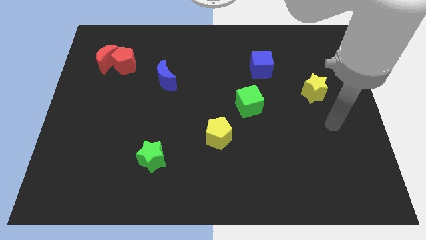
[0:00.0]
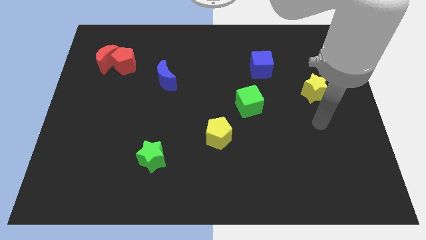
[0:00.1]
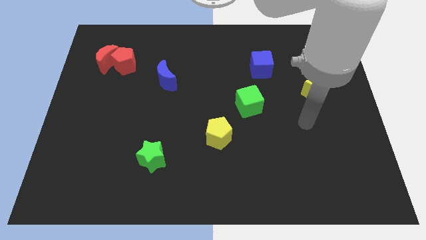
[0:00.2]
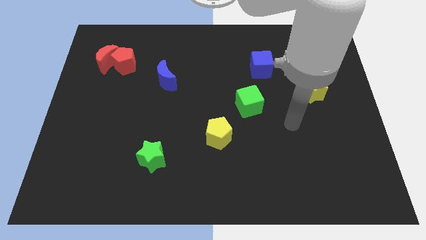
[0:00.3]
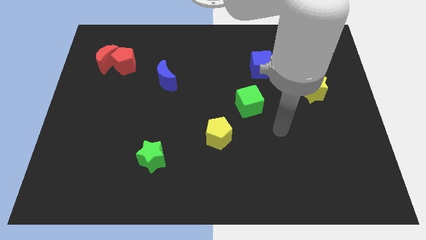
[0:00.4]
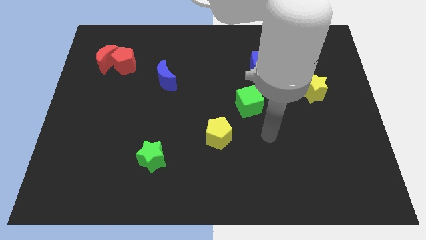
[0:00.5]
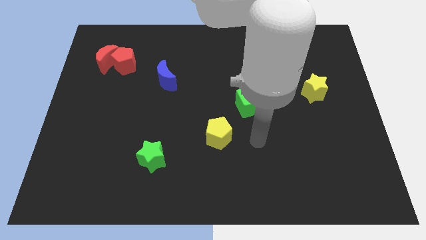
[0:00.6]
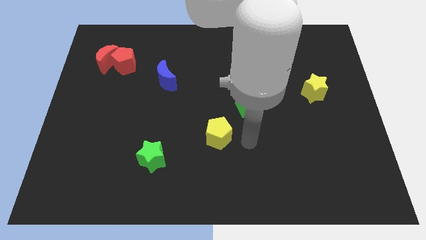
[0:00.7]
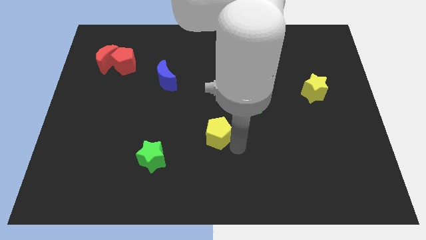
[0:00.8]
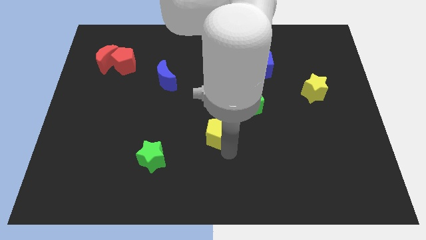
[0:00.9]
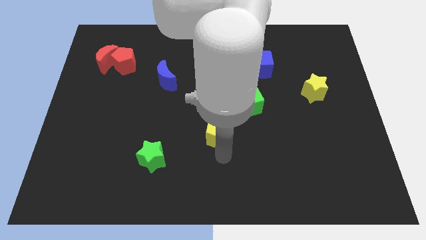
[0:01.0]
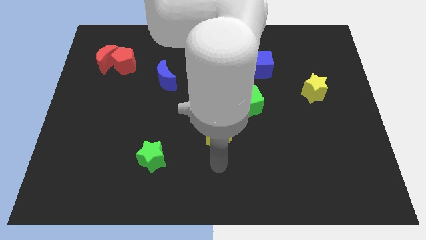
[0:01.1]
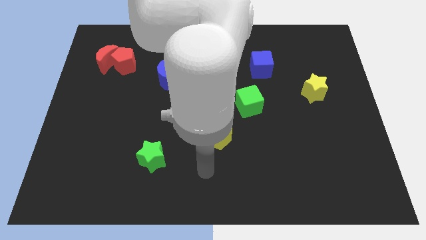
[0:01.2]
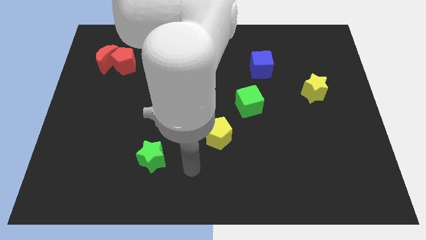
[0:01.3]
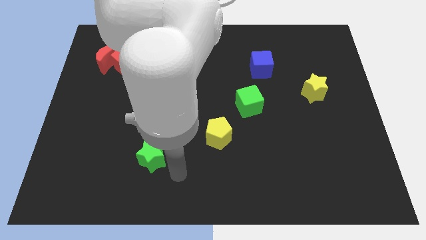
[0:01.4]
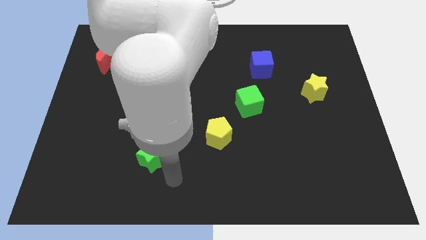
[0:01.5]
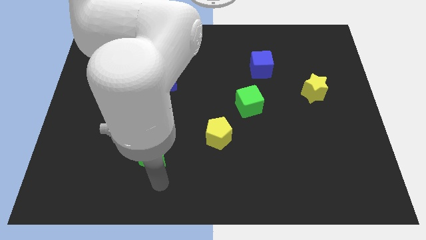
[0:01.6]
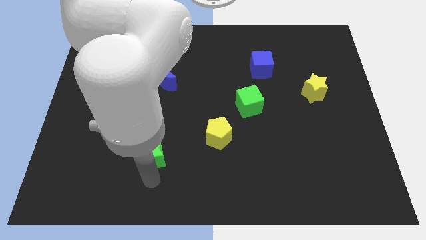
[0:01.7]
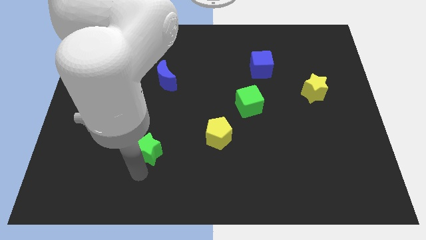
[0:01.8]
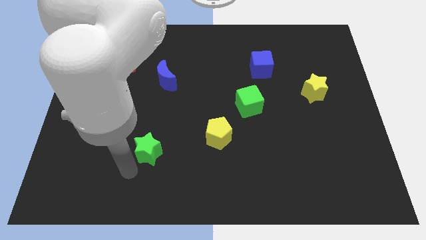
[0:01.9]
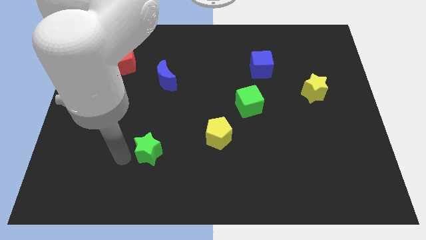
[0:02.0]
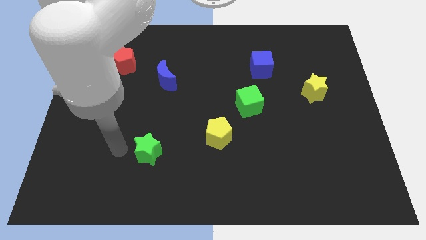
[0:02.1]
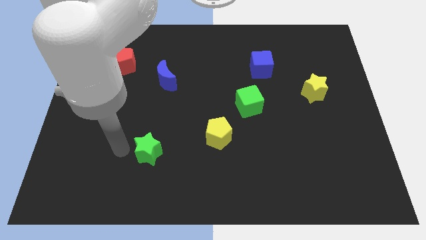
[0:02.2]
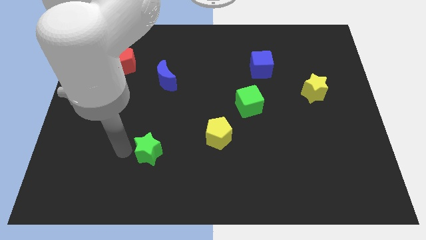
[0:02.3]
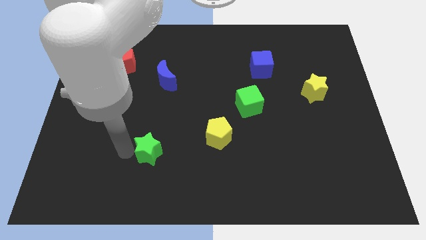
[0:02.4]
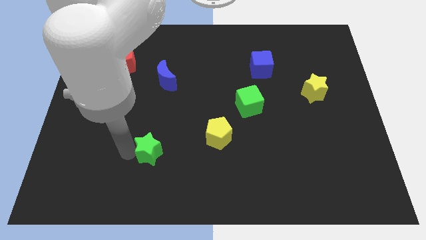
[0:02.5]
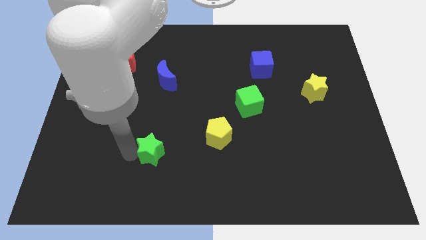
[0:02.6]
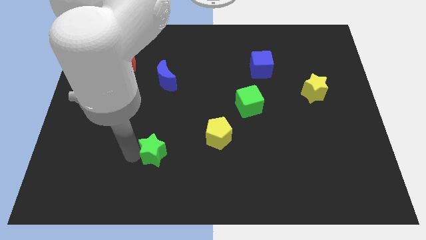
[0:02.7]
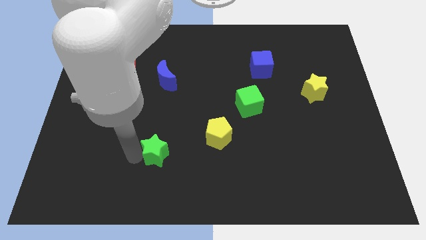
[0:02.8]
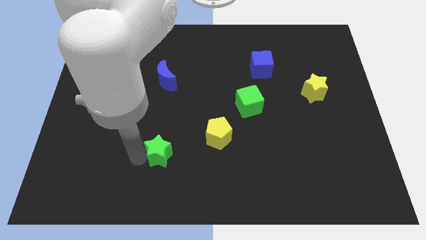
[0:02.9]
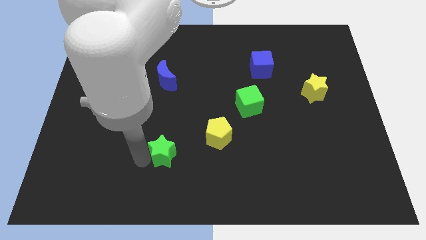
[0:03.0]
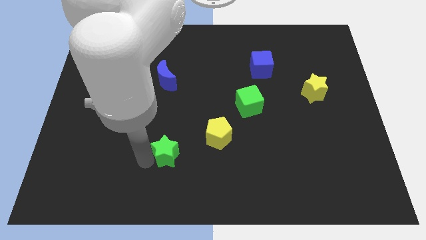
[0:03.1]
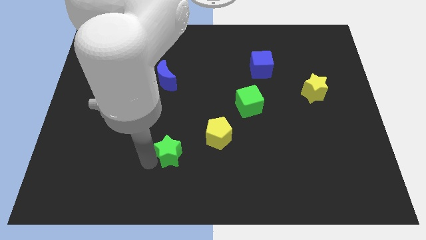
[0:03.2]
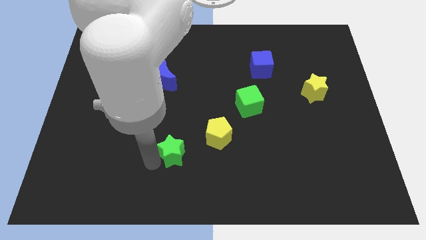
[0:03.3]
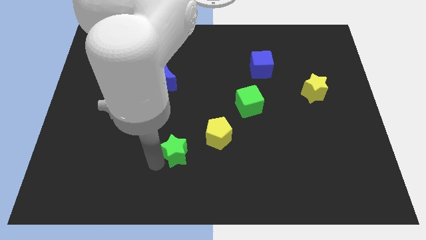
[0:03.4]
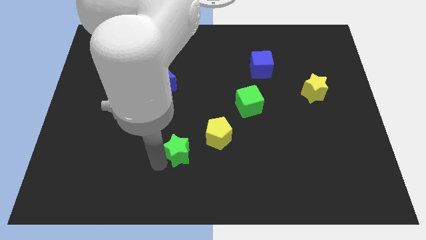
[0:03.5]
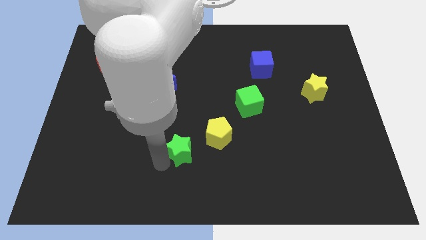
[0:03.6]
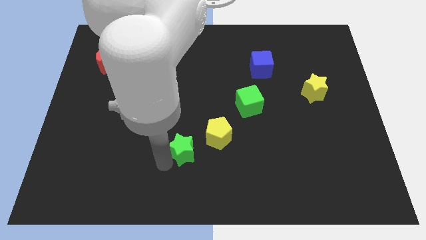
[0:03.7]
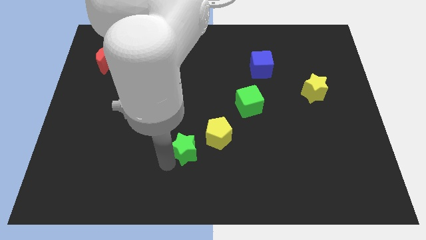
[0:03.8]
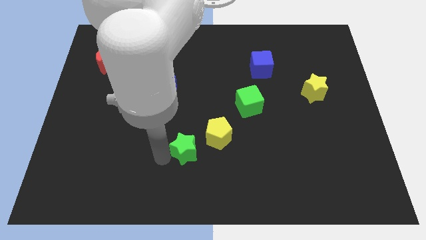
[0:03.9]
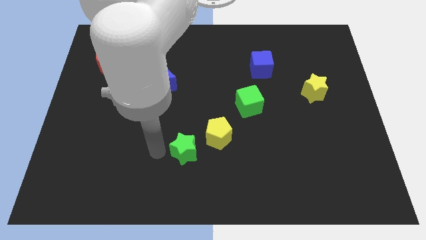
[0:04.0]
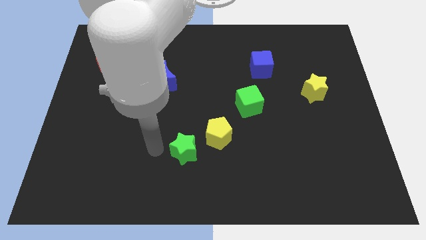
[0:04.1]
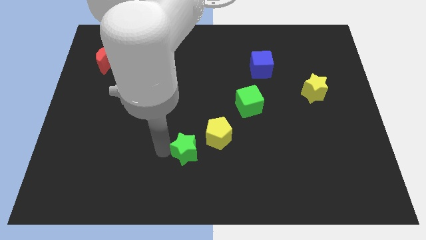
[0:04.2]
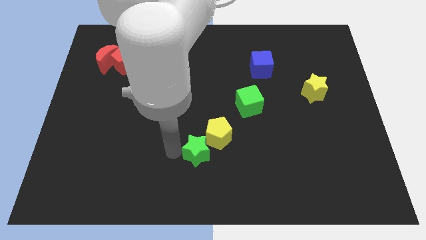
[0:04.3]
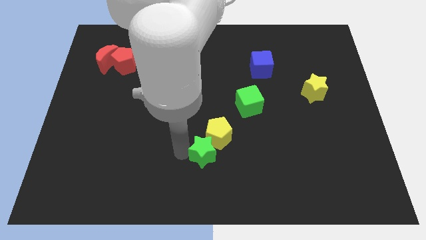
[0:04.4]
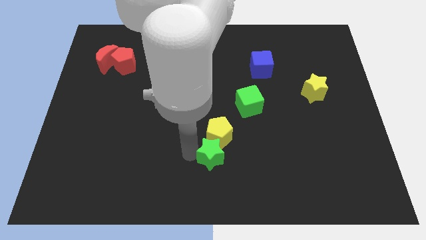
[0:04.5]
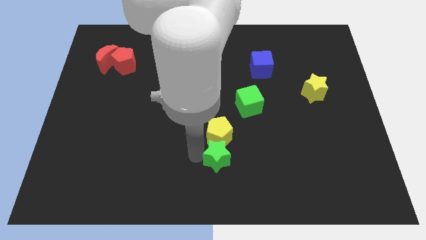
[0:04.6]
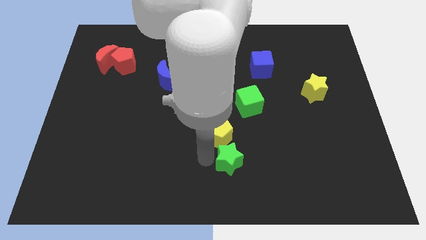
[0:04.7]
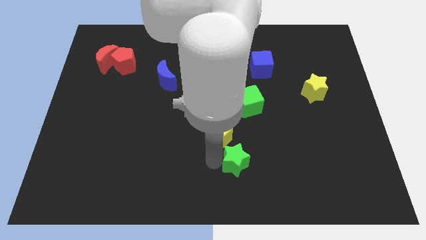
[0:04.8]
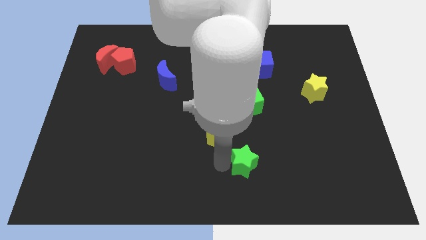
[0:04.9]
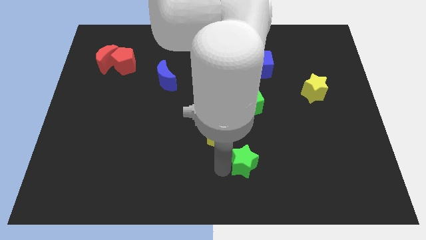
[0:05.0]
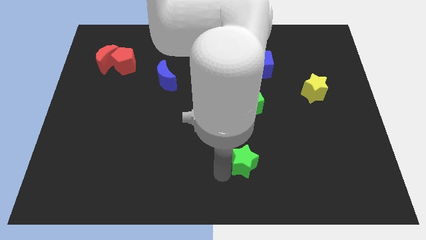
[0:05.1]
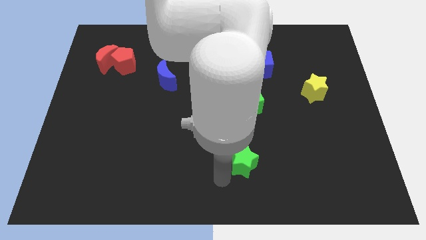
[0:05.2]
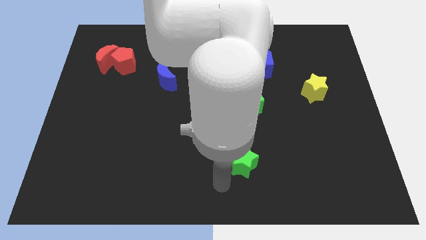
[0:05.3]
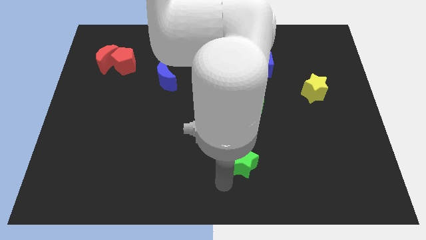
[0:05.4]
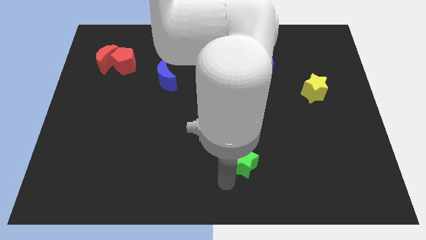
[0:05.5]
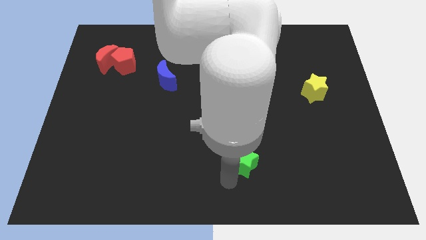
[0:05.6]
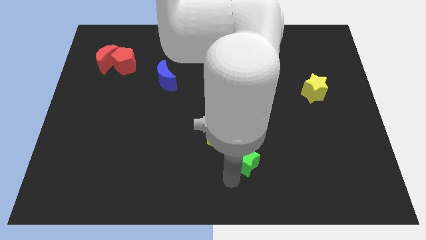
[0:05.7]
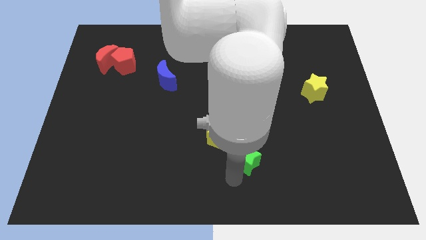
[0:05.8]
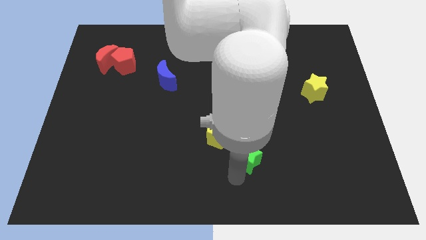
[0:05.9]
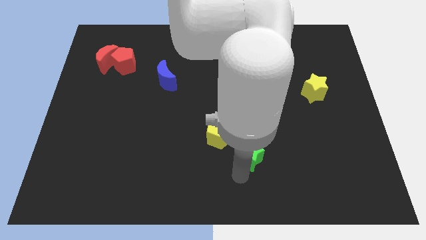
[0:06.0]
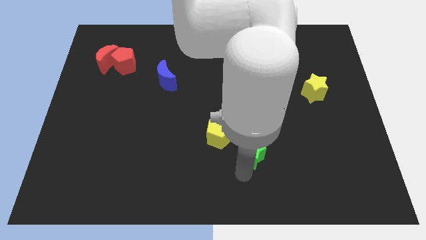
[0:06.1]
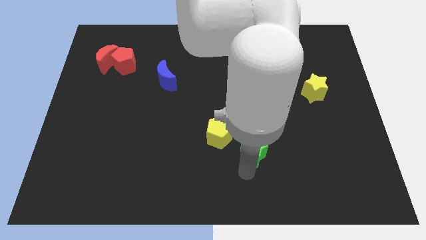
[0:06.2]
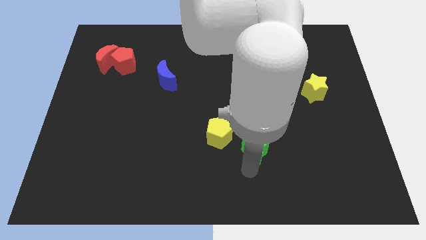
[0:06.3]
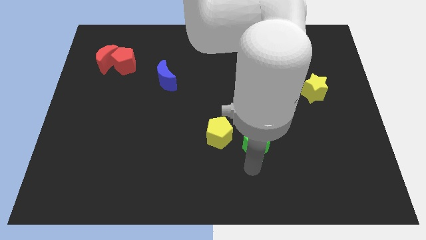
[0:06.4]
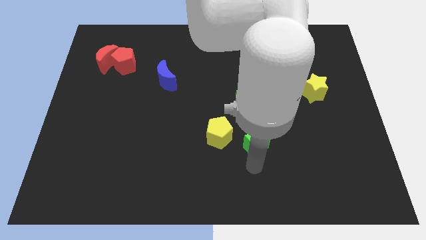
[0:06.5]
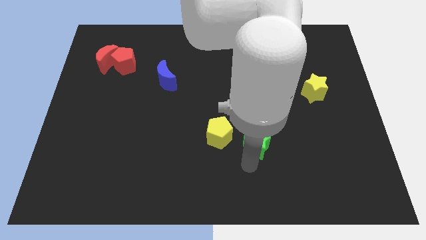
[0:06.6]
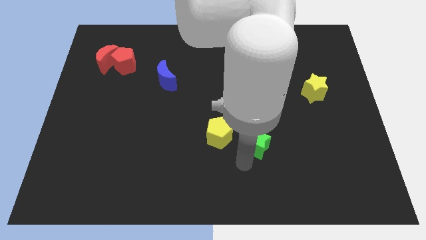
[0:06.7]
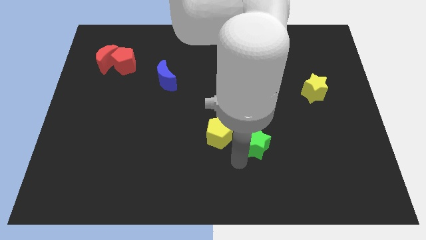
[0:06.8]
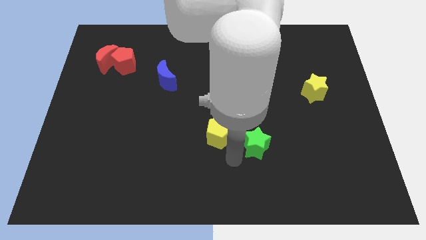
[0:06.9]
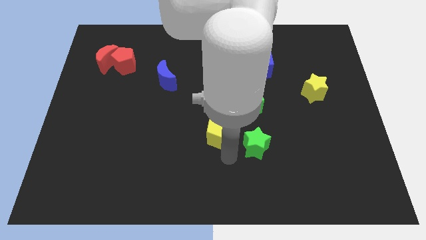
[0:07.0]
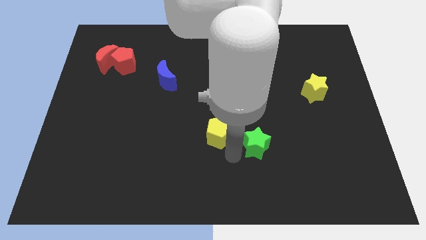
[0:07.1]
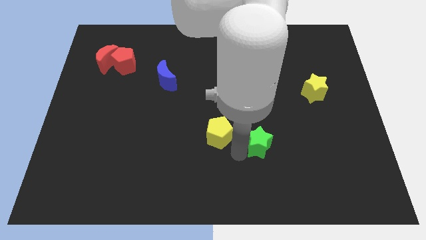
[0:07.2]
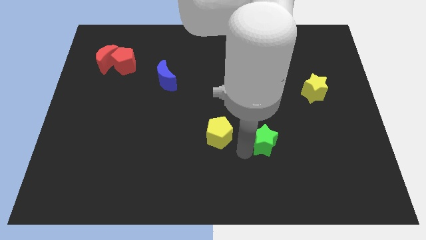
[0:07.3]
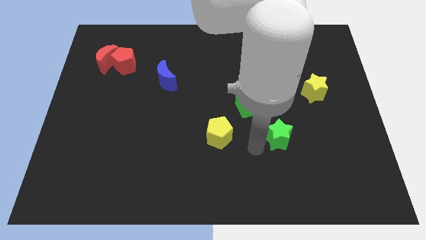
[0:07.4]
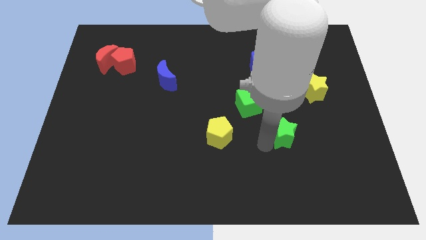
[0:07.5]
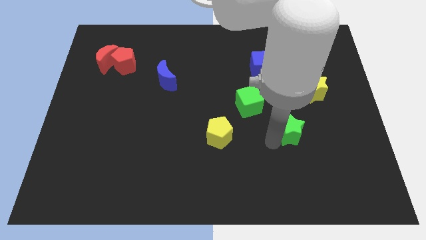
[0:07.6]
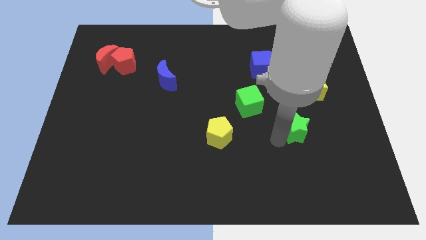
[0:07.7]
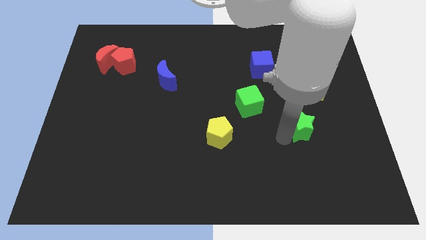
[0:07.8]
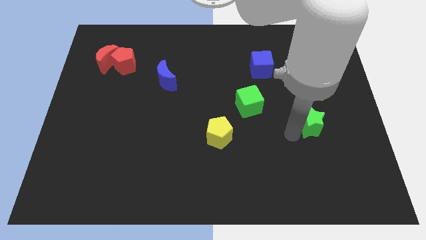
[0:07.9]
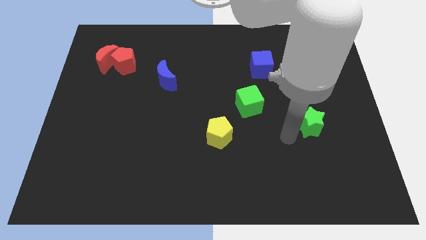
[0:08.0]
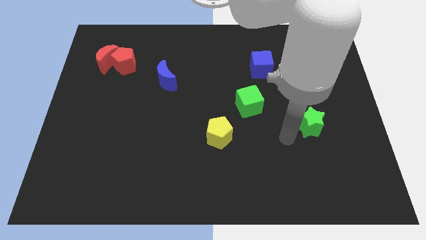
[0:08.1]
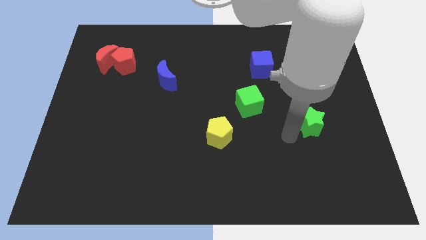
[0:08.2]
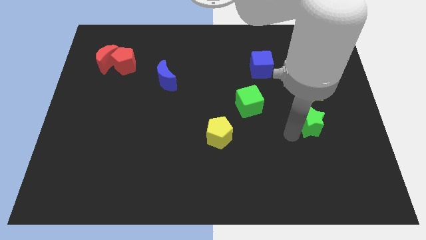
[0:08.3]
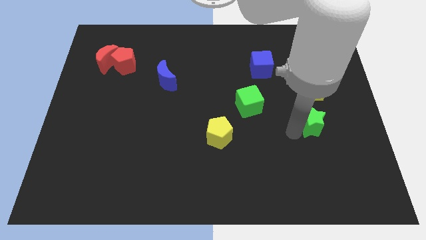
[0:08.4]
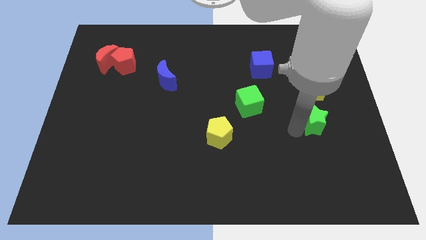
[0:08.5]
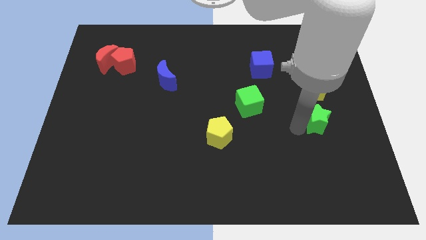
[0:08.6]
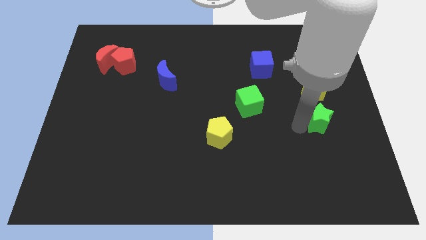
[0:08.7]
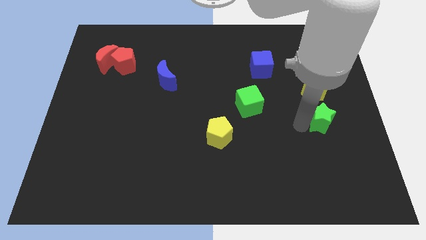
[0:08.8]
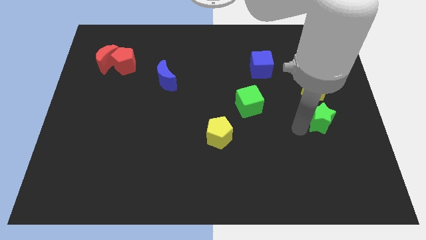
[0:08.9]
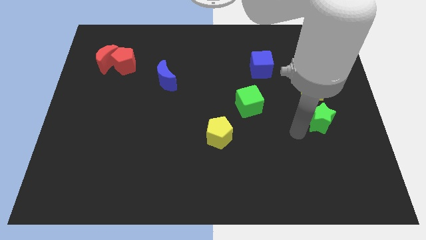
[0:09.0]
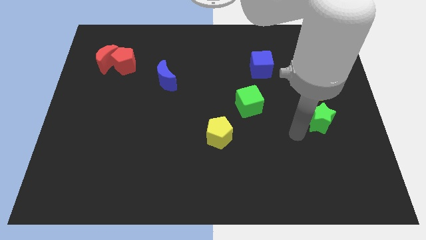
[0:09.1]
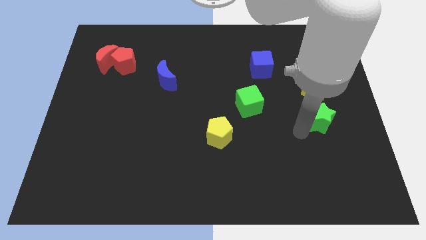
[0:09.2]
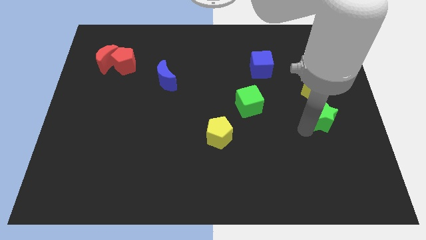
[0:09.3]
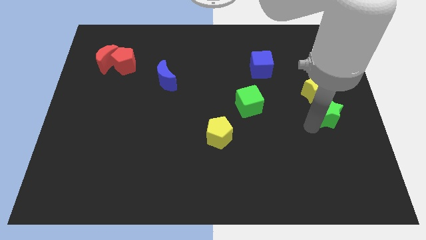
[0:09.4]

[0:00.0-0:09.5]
push the green star to the right side of the board
